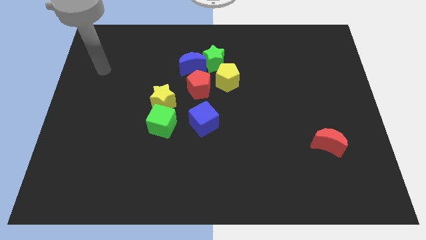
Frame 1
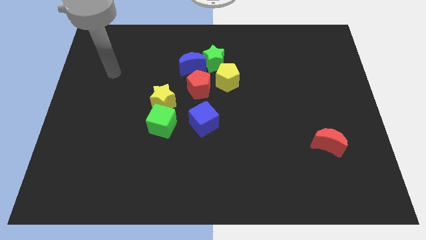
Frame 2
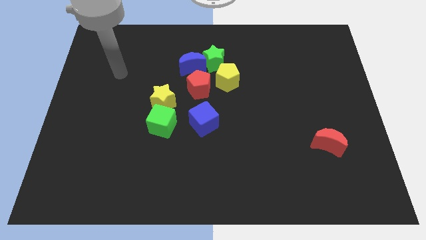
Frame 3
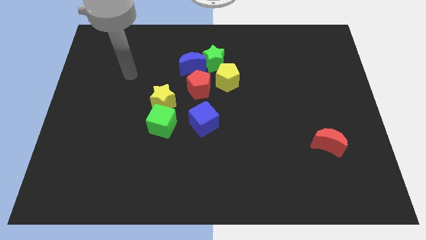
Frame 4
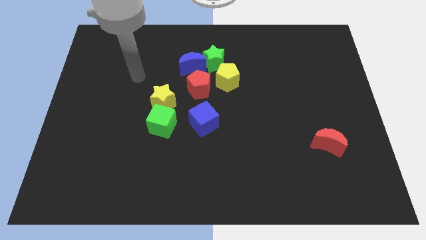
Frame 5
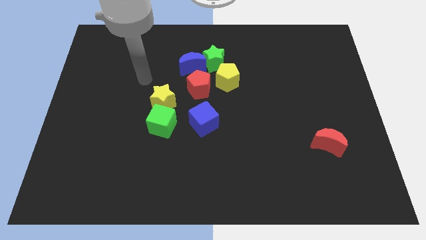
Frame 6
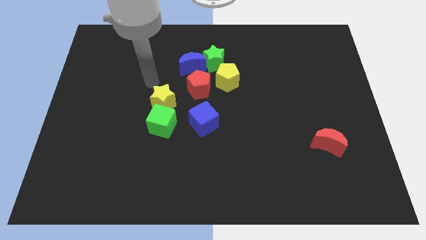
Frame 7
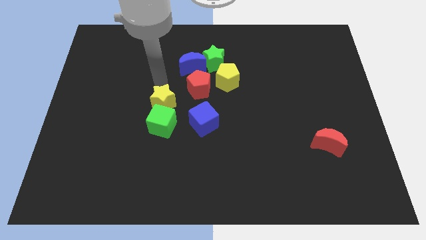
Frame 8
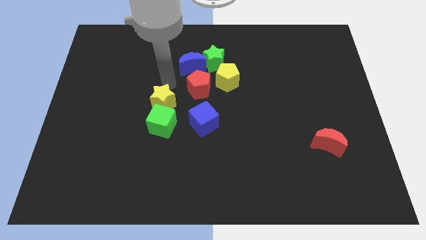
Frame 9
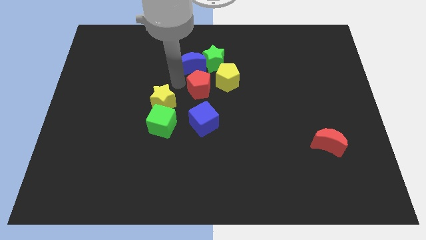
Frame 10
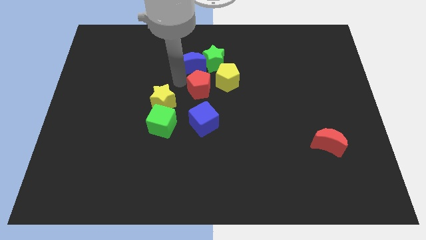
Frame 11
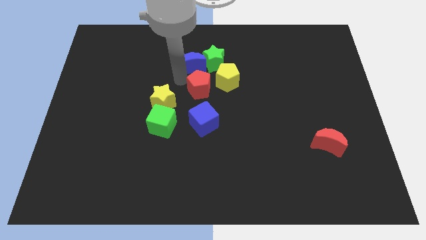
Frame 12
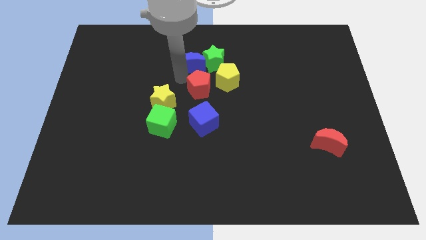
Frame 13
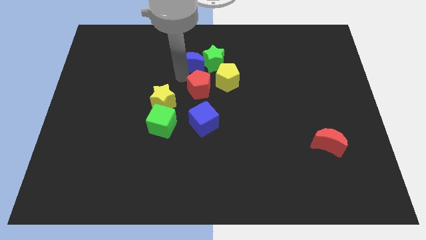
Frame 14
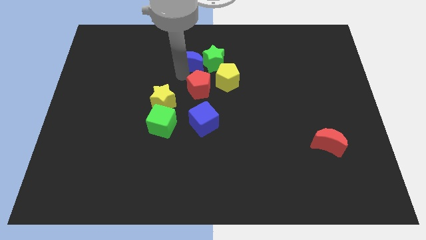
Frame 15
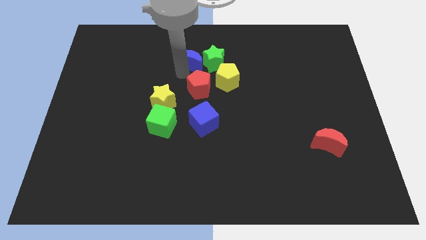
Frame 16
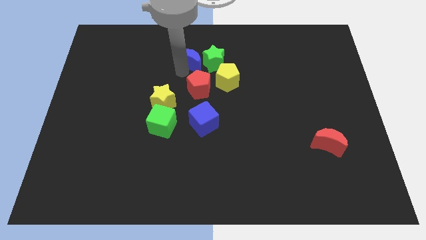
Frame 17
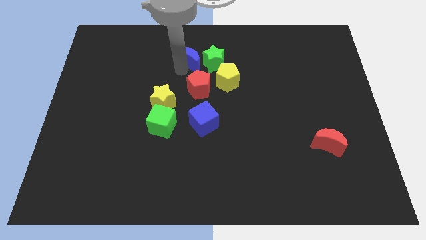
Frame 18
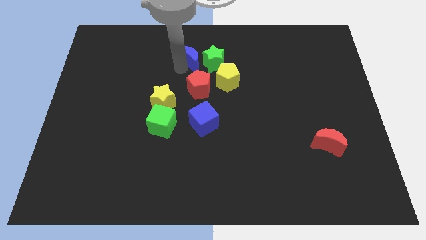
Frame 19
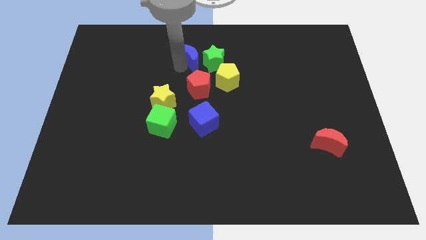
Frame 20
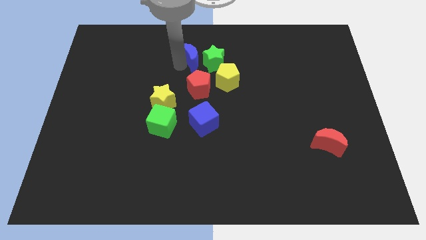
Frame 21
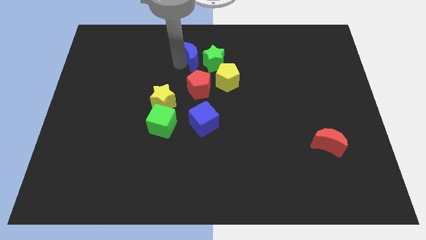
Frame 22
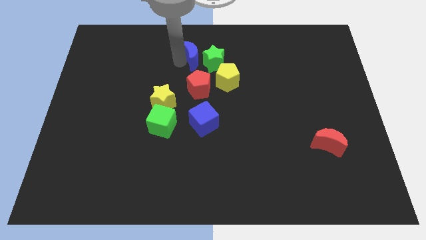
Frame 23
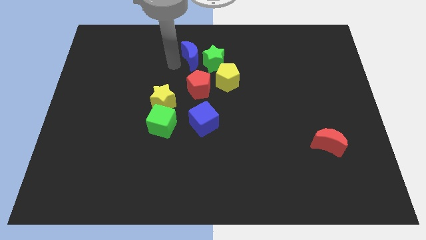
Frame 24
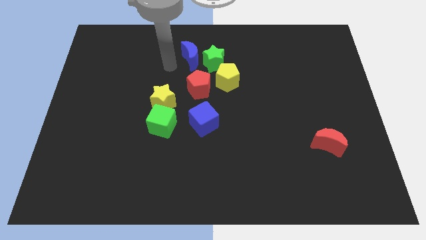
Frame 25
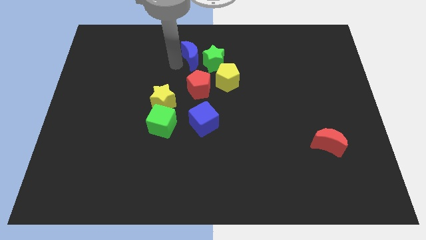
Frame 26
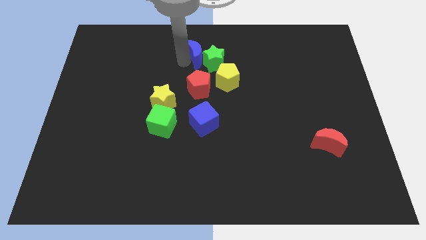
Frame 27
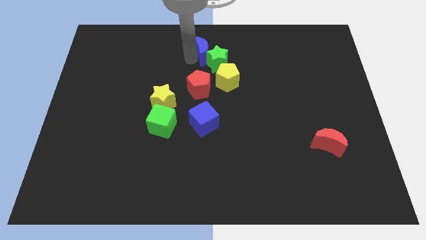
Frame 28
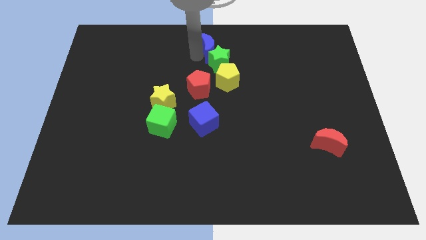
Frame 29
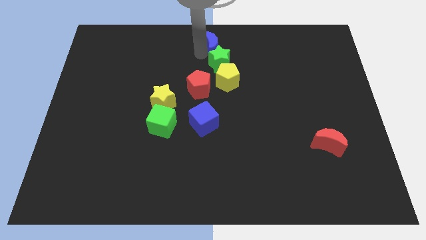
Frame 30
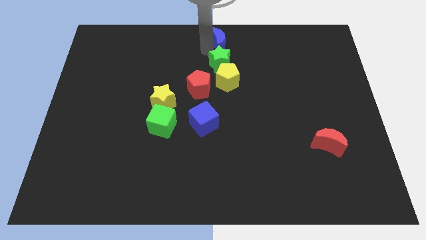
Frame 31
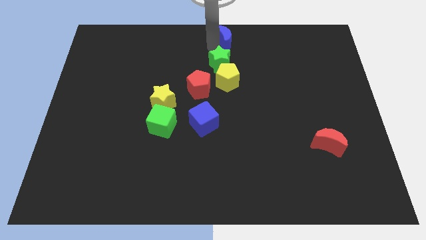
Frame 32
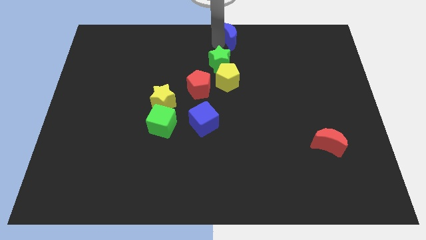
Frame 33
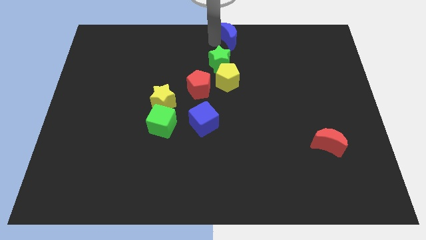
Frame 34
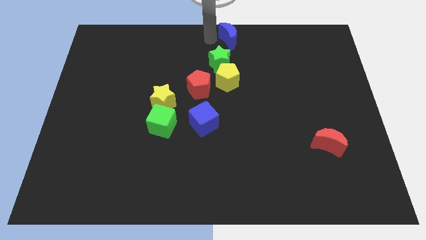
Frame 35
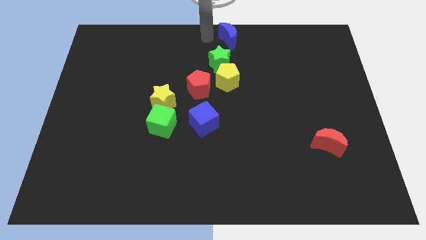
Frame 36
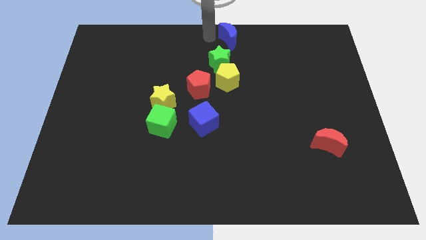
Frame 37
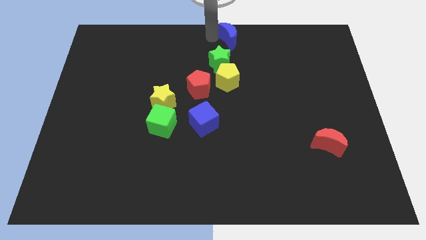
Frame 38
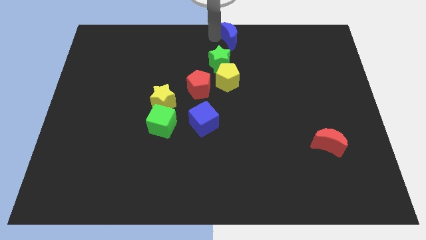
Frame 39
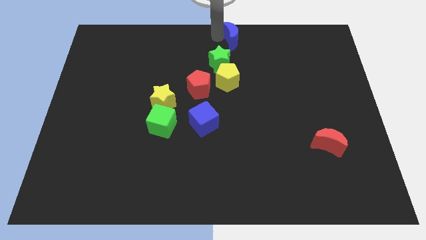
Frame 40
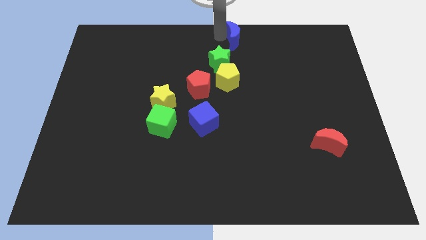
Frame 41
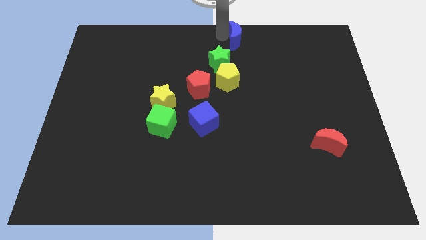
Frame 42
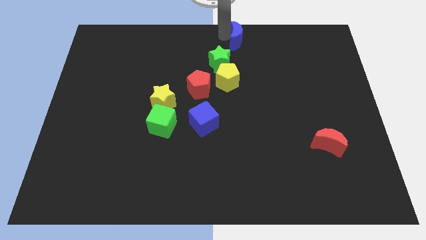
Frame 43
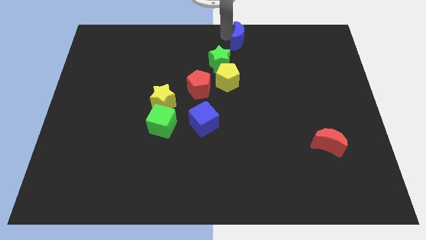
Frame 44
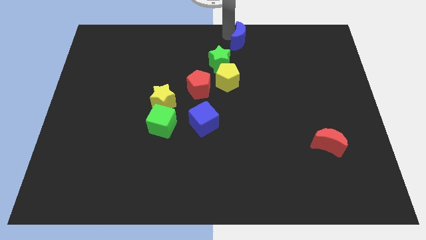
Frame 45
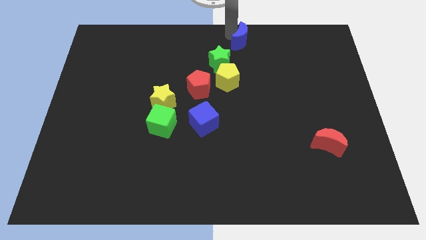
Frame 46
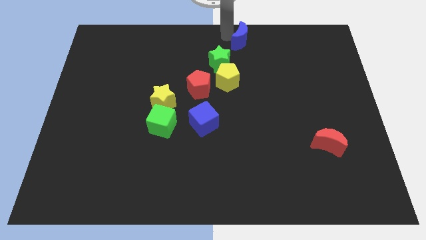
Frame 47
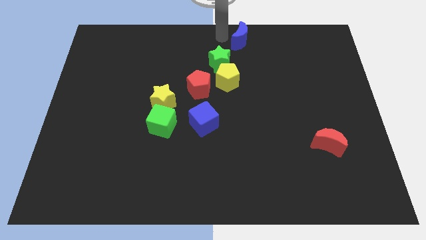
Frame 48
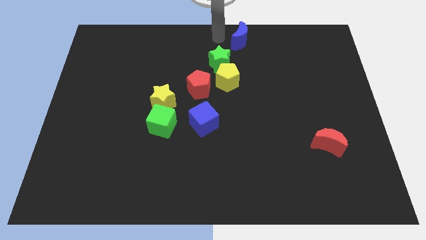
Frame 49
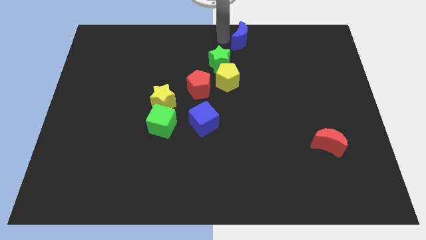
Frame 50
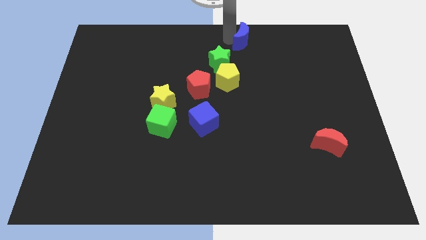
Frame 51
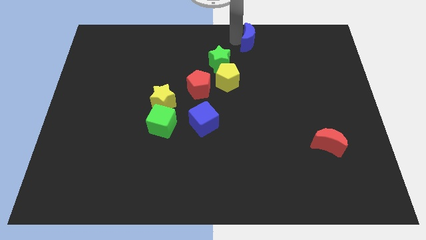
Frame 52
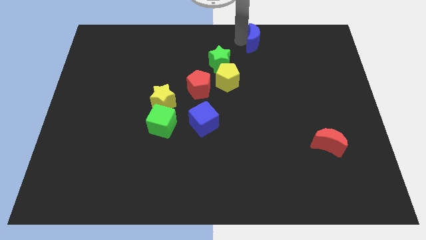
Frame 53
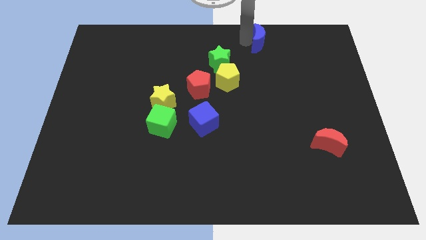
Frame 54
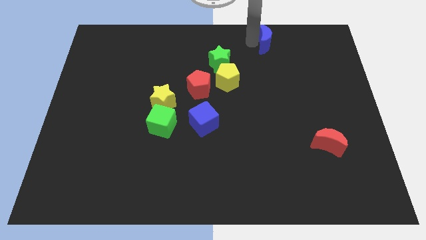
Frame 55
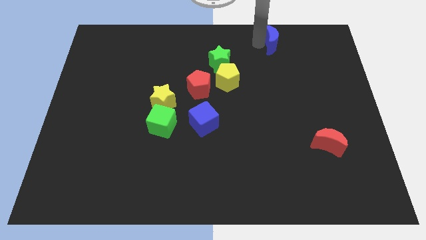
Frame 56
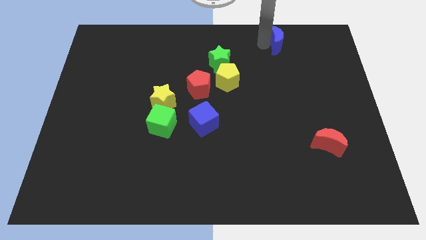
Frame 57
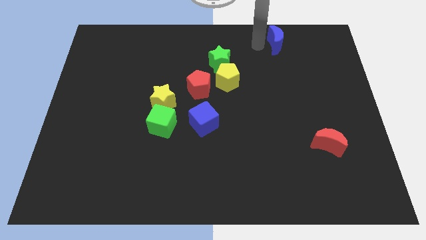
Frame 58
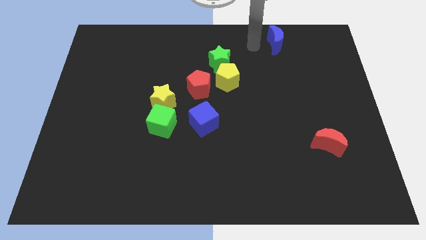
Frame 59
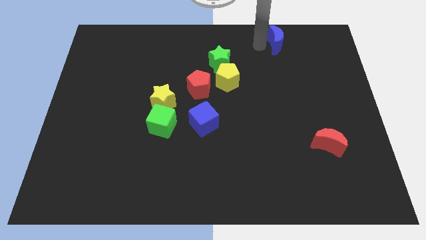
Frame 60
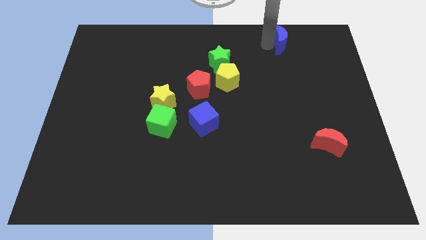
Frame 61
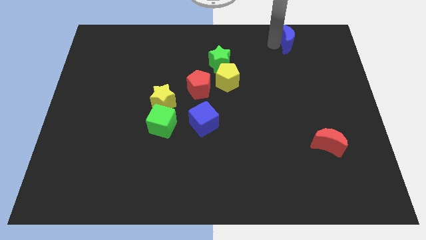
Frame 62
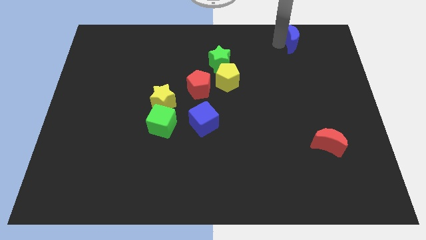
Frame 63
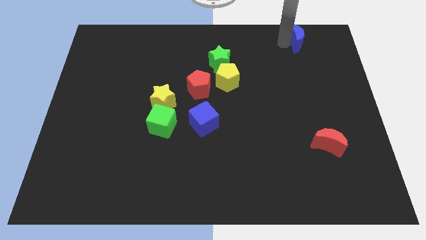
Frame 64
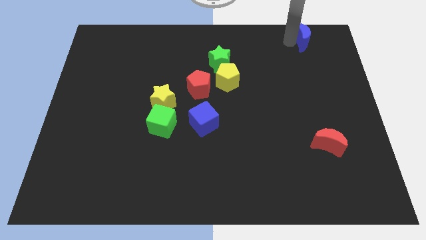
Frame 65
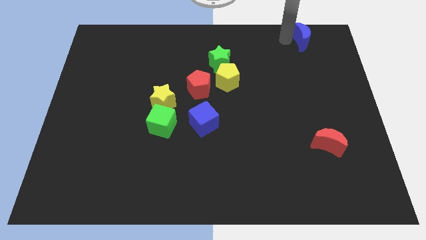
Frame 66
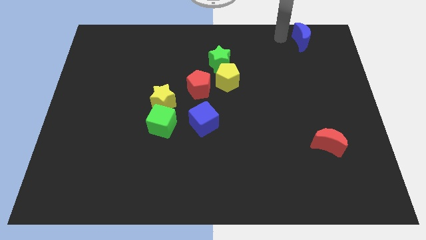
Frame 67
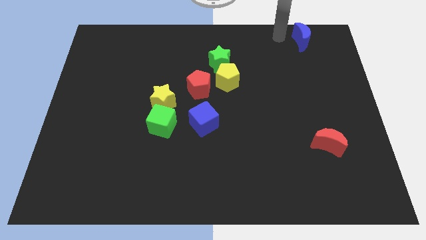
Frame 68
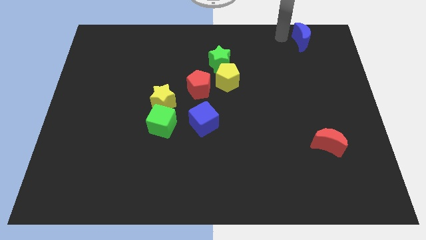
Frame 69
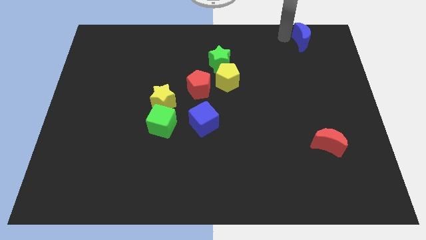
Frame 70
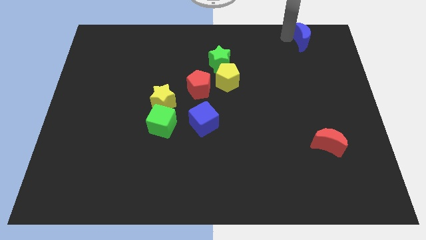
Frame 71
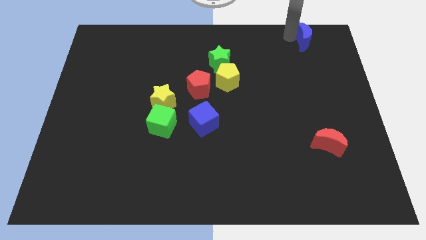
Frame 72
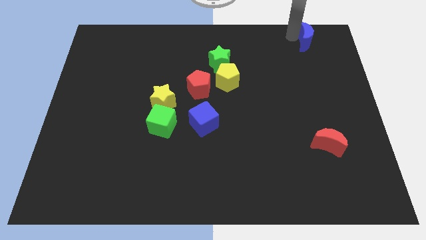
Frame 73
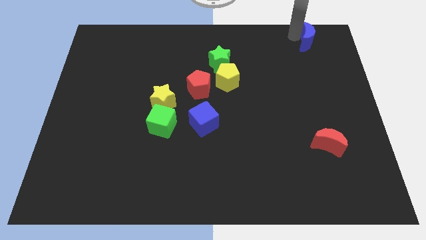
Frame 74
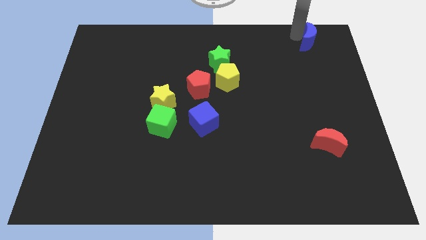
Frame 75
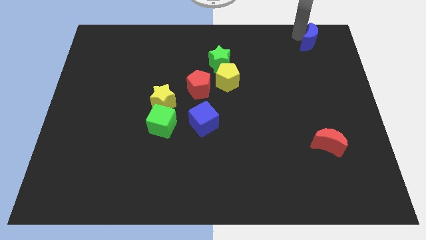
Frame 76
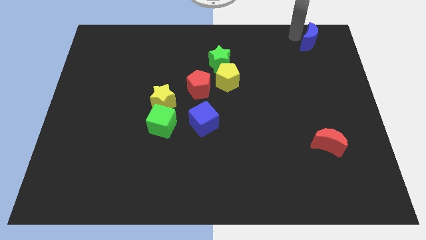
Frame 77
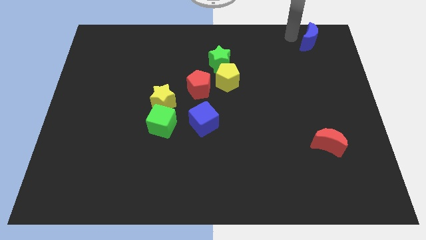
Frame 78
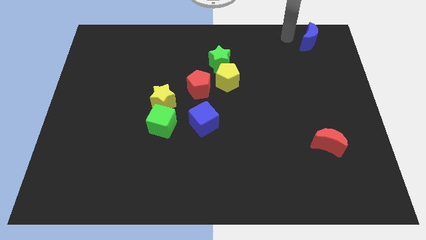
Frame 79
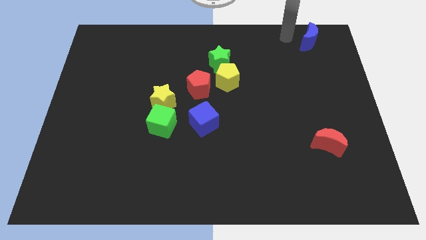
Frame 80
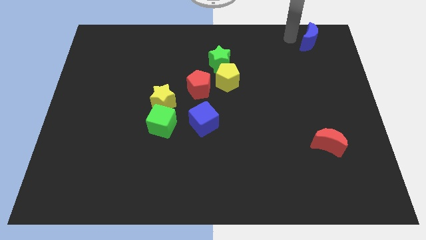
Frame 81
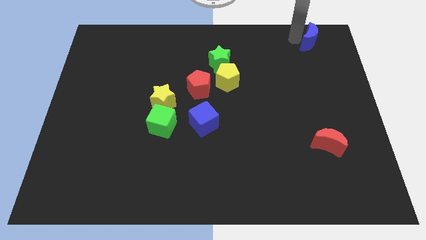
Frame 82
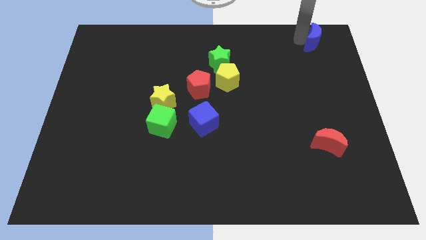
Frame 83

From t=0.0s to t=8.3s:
slide the blue moon to the upper right corner
